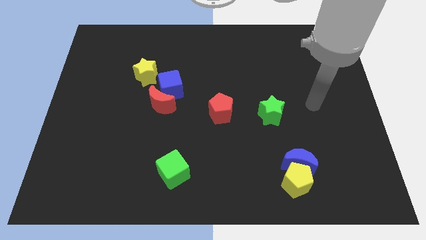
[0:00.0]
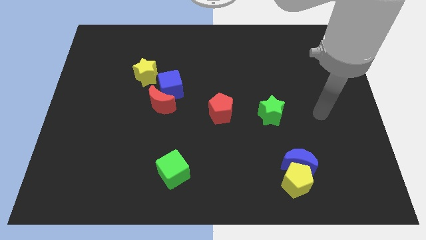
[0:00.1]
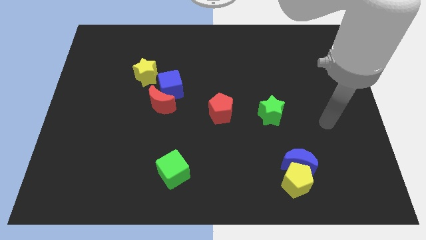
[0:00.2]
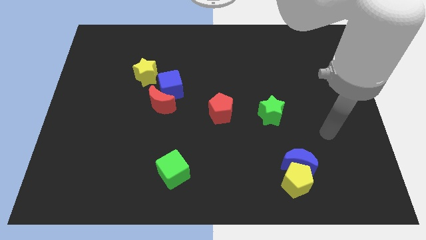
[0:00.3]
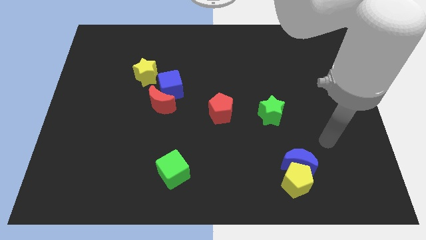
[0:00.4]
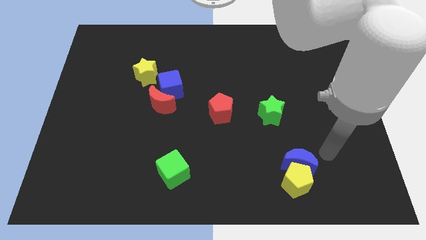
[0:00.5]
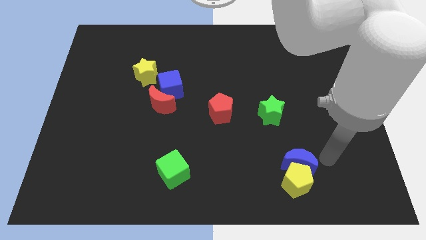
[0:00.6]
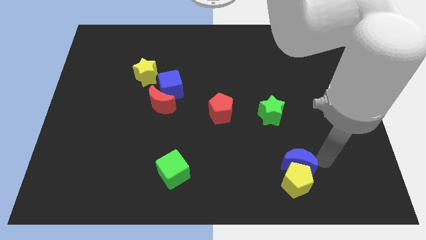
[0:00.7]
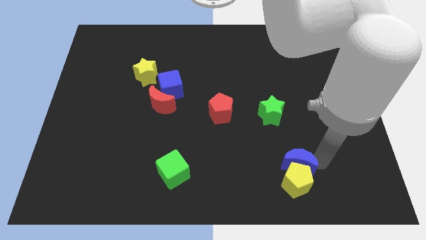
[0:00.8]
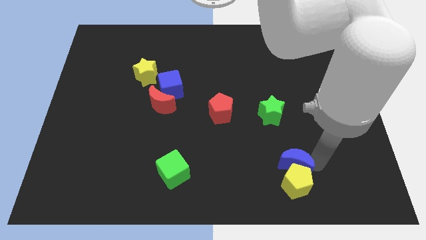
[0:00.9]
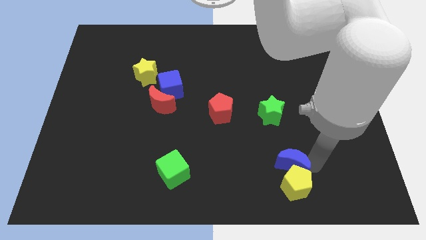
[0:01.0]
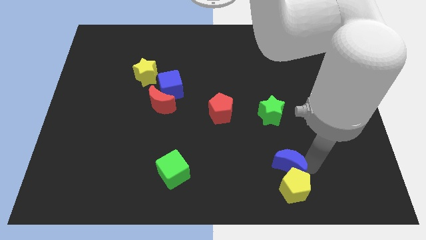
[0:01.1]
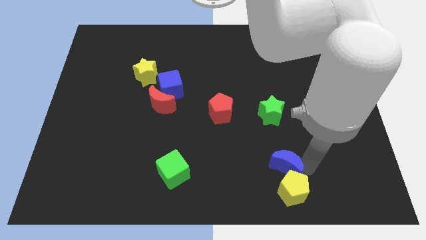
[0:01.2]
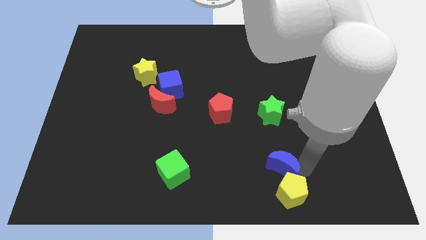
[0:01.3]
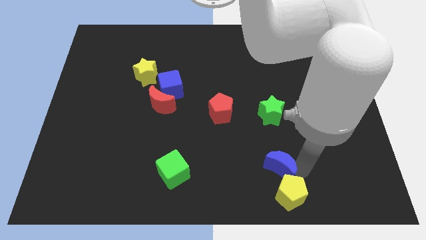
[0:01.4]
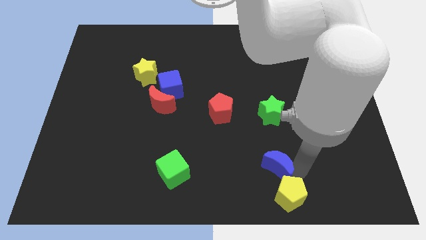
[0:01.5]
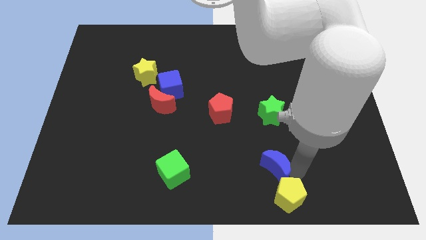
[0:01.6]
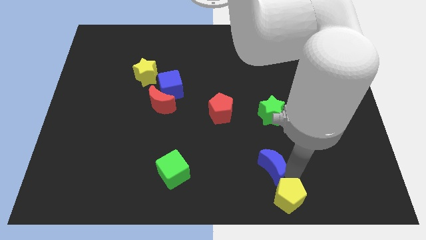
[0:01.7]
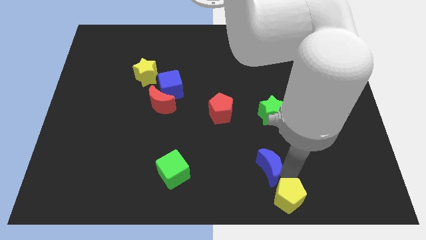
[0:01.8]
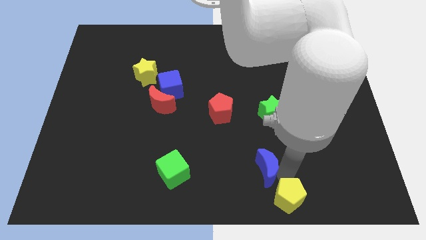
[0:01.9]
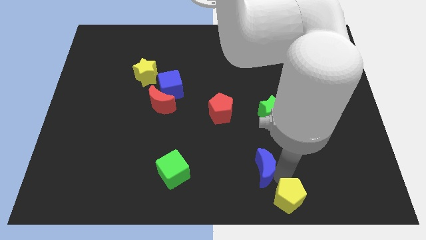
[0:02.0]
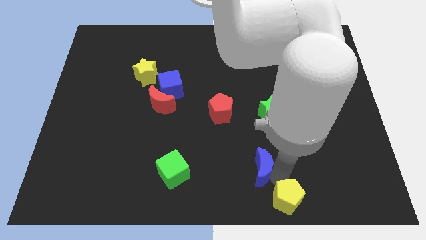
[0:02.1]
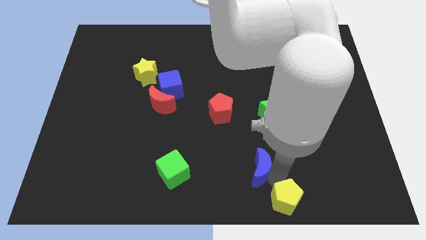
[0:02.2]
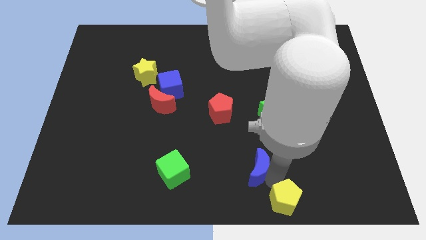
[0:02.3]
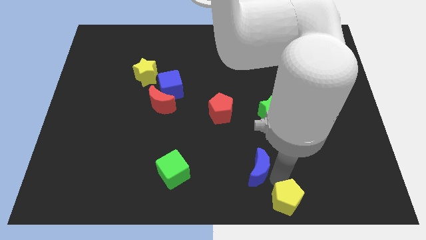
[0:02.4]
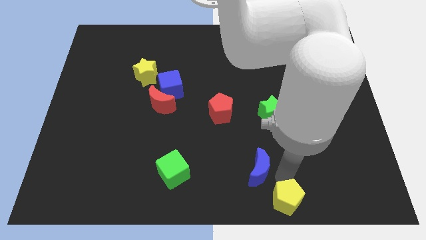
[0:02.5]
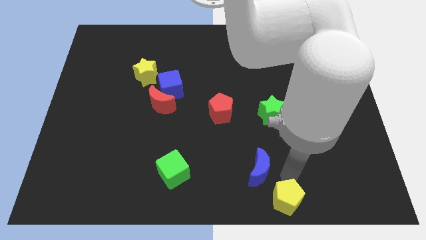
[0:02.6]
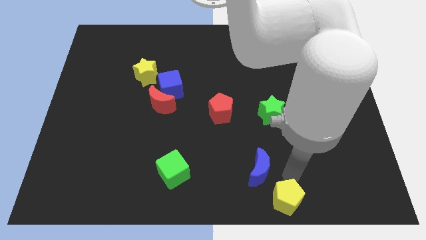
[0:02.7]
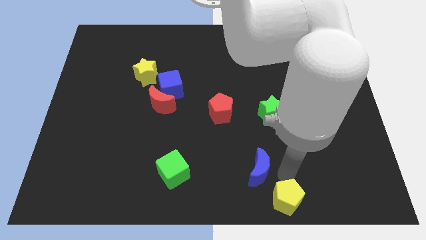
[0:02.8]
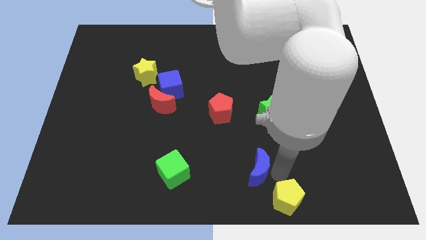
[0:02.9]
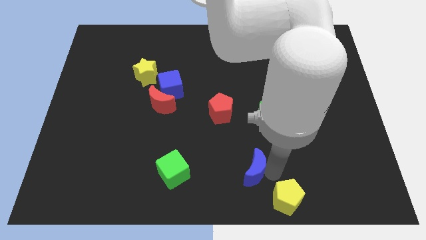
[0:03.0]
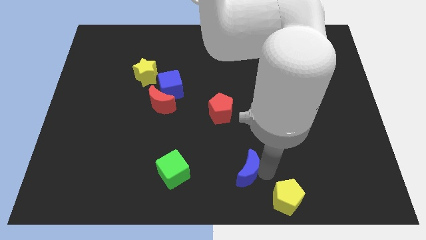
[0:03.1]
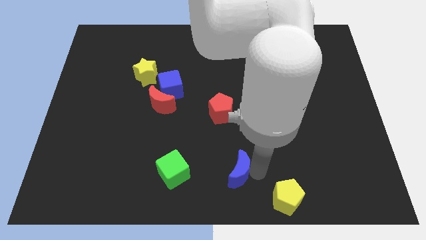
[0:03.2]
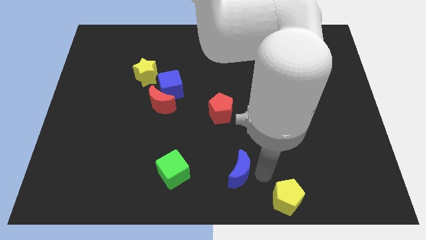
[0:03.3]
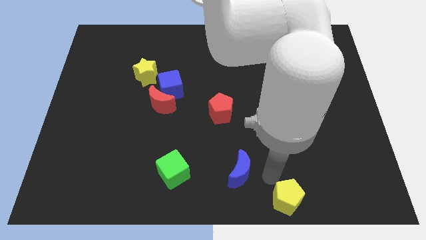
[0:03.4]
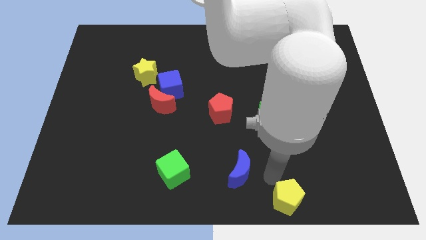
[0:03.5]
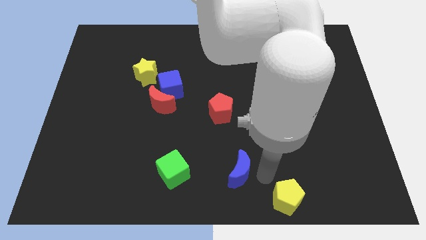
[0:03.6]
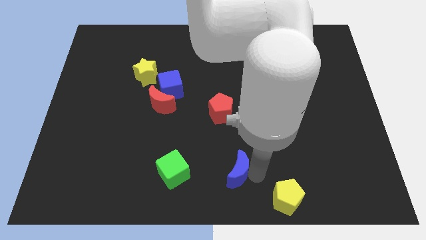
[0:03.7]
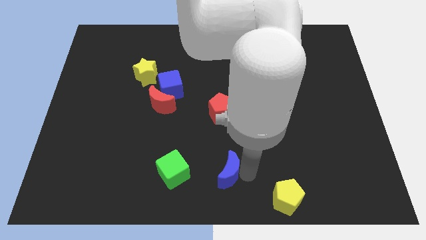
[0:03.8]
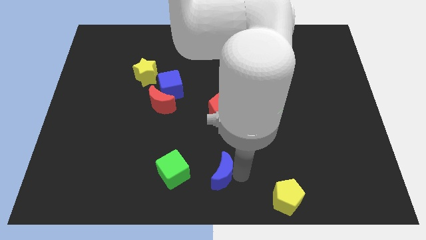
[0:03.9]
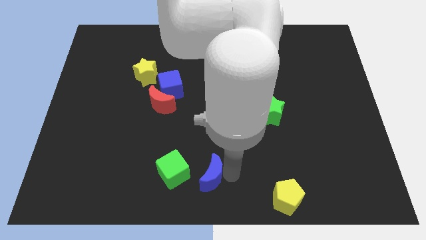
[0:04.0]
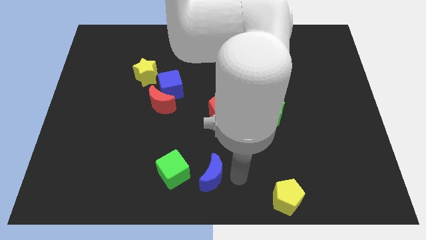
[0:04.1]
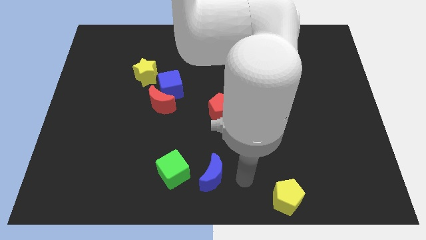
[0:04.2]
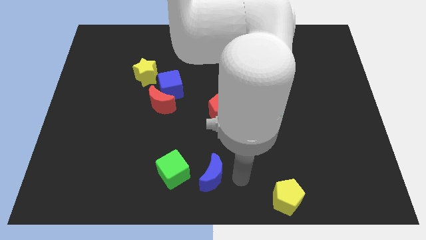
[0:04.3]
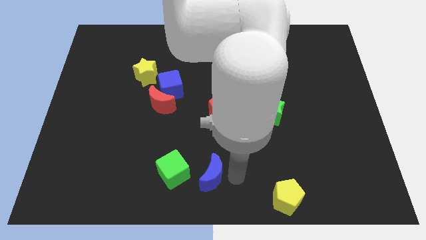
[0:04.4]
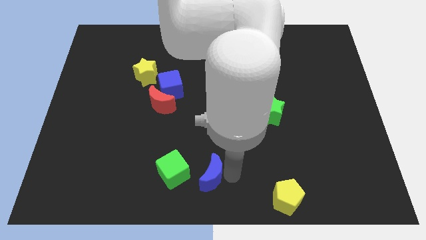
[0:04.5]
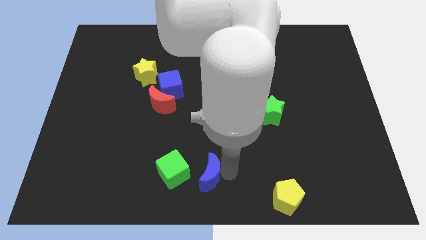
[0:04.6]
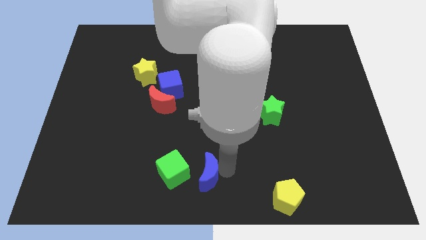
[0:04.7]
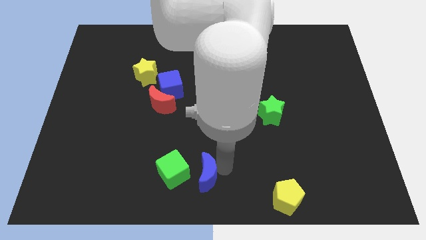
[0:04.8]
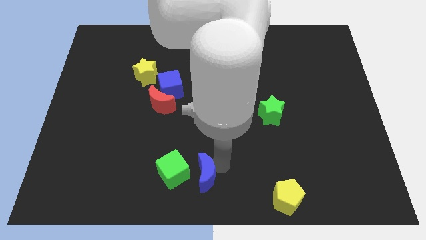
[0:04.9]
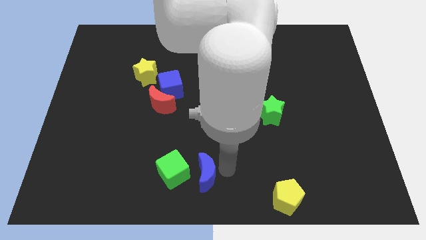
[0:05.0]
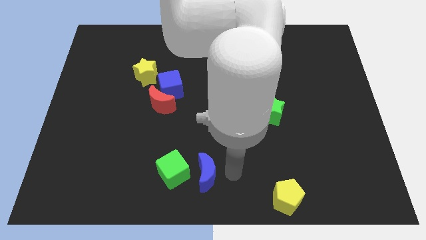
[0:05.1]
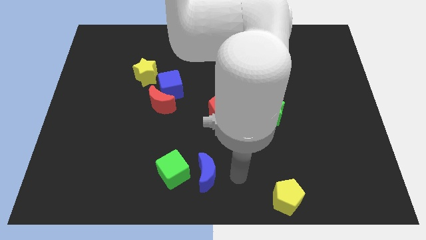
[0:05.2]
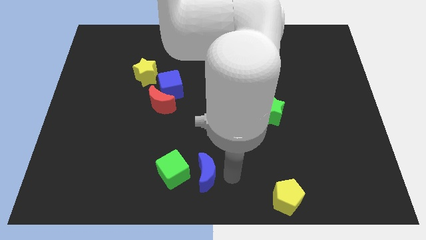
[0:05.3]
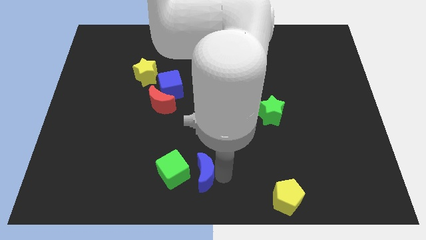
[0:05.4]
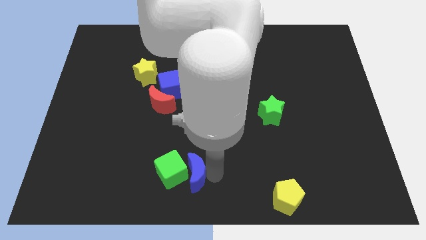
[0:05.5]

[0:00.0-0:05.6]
move the blue moon close to the green cube

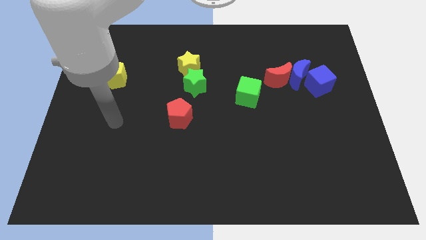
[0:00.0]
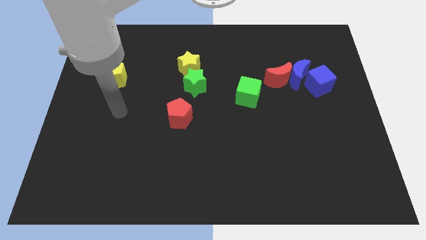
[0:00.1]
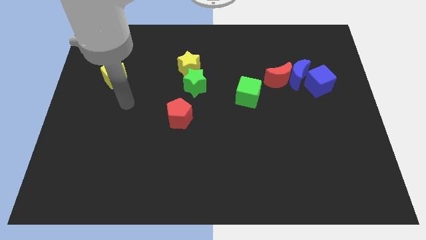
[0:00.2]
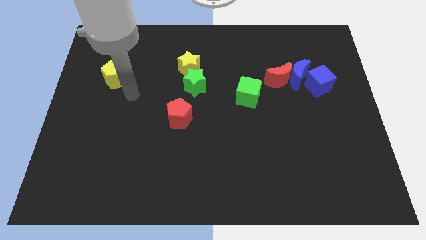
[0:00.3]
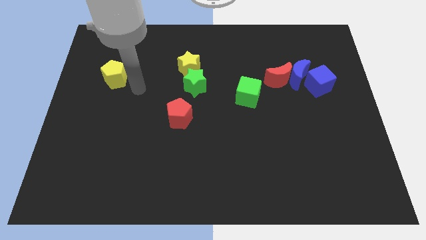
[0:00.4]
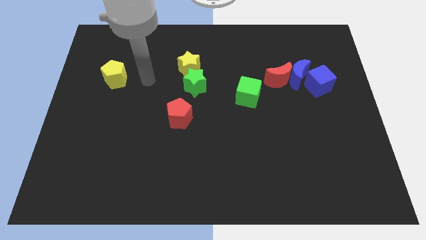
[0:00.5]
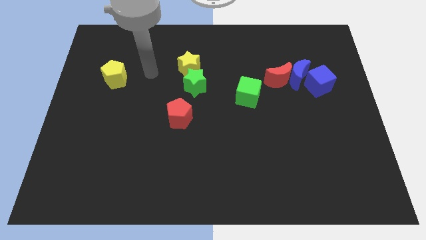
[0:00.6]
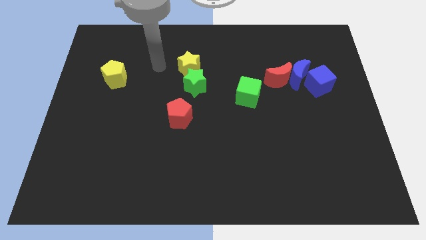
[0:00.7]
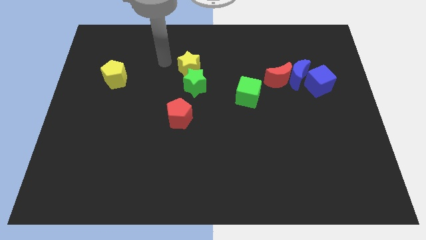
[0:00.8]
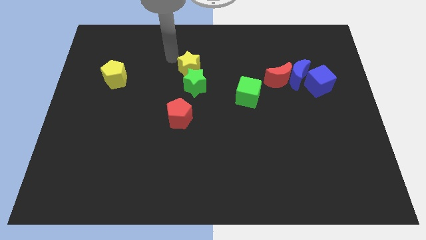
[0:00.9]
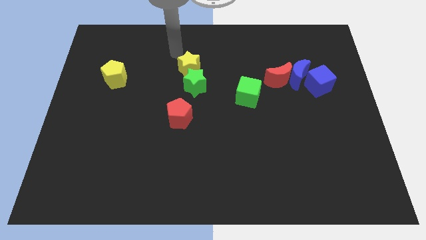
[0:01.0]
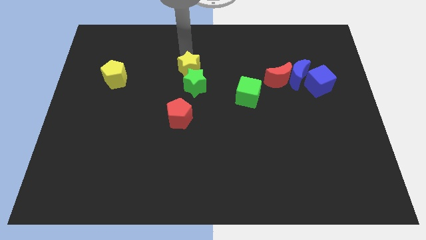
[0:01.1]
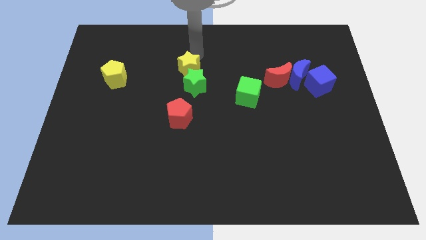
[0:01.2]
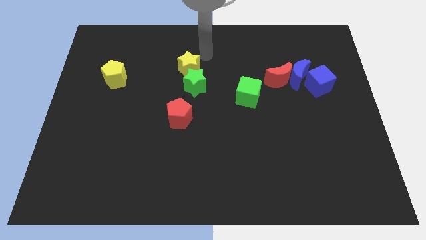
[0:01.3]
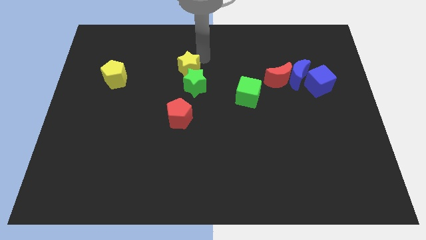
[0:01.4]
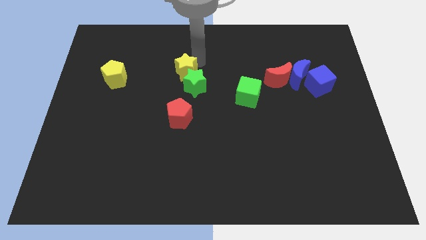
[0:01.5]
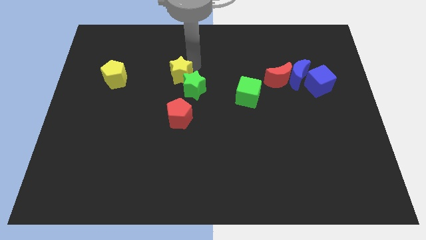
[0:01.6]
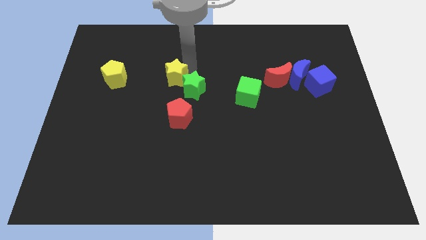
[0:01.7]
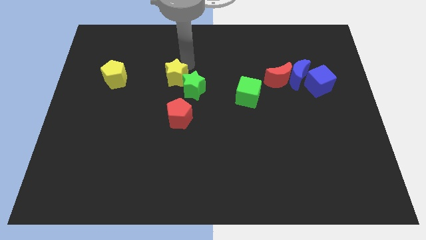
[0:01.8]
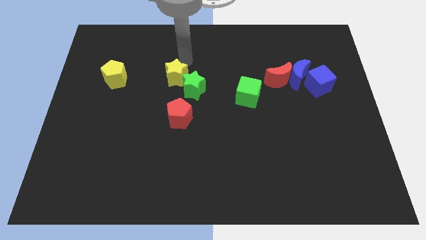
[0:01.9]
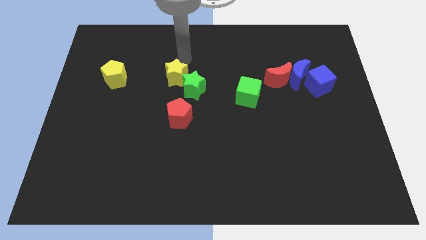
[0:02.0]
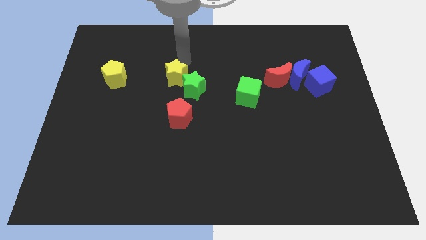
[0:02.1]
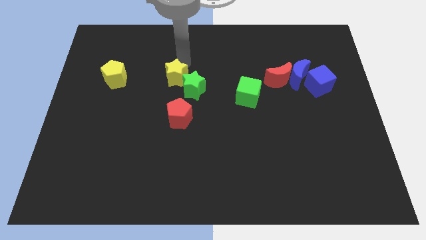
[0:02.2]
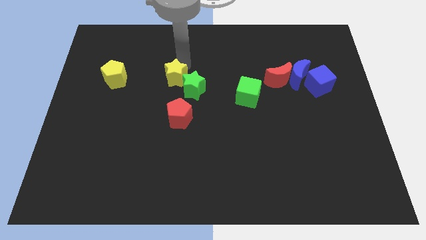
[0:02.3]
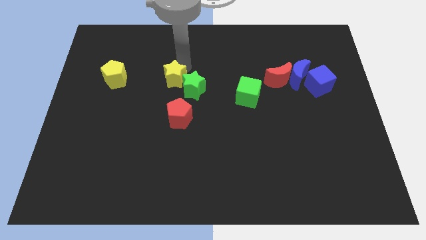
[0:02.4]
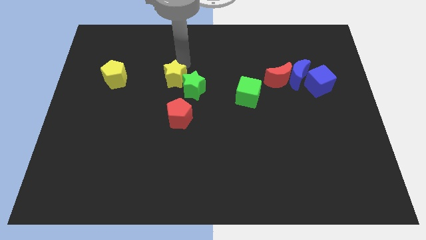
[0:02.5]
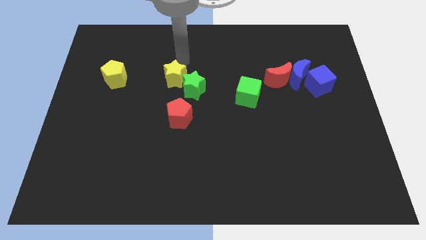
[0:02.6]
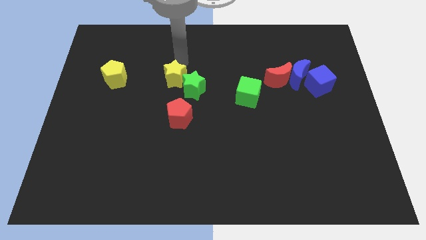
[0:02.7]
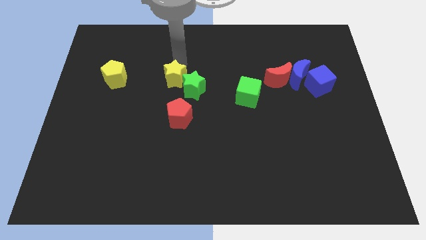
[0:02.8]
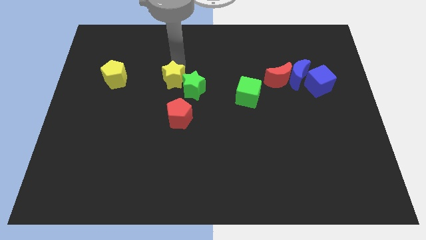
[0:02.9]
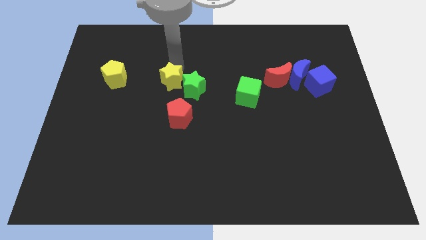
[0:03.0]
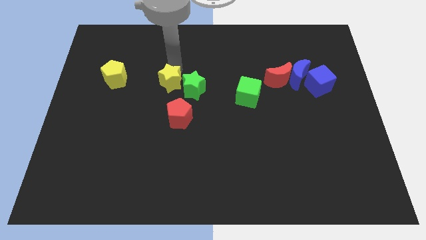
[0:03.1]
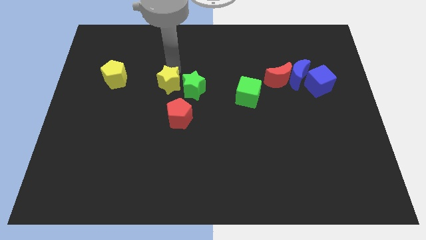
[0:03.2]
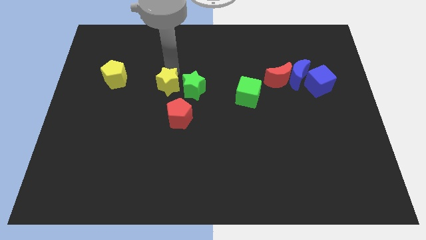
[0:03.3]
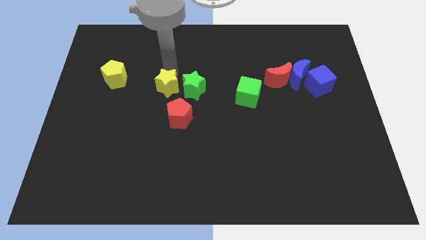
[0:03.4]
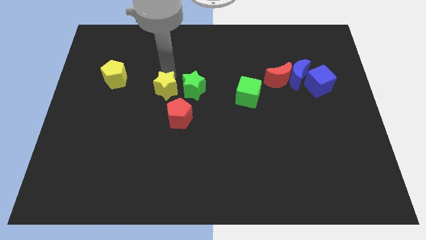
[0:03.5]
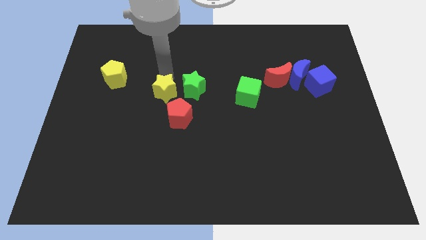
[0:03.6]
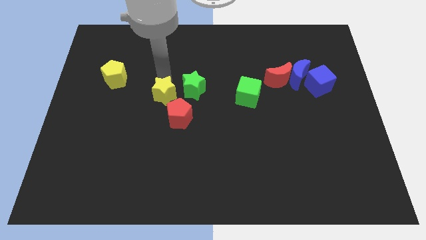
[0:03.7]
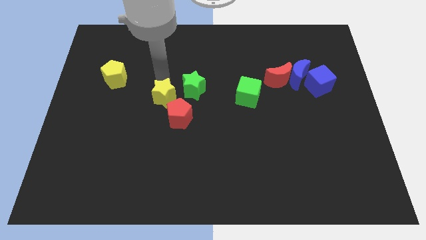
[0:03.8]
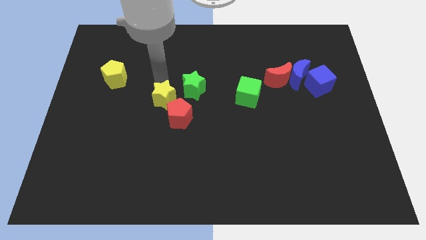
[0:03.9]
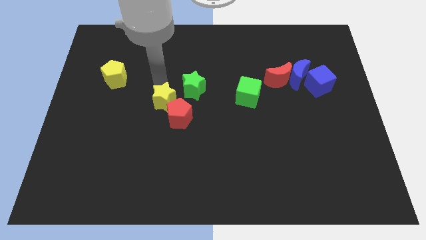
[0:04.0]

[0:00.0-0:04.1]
move the yellow star towards the red pentagon
